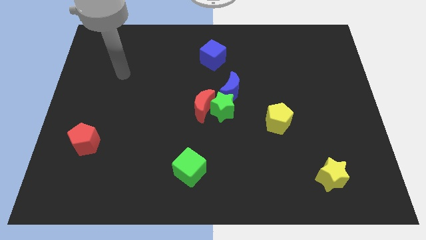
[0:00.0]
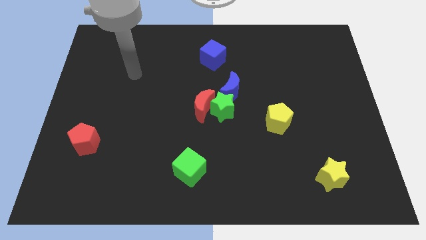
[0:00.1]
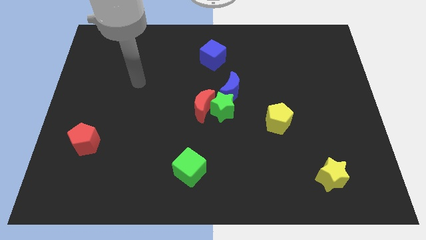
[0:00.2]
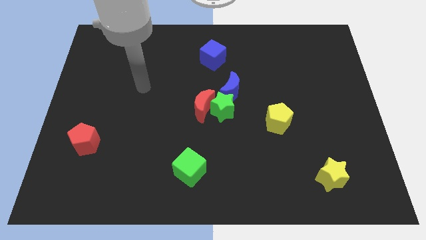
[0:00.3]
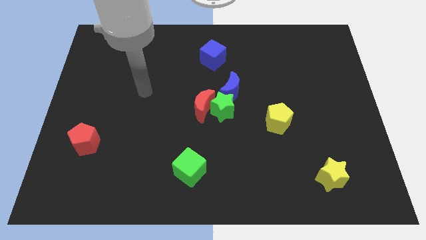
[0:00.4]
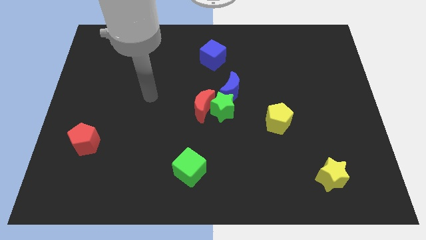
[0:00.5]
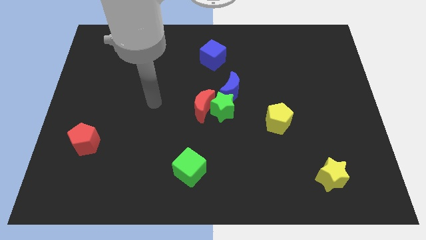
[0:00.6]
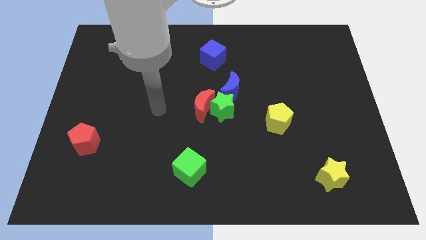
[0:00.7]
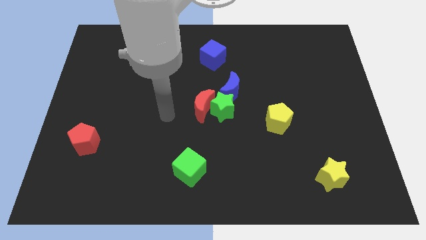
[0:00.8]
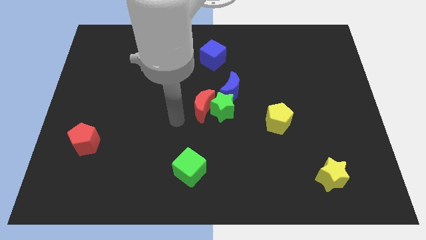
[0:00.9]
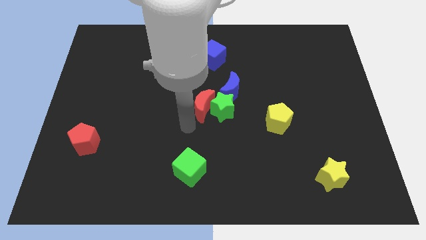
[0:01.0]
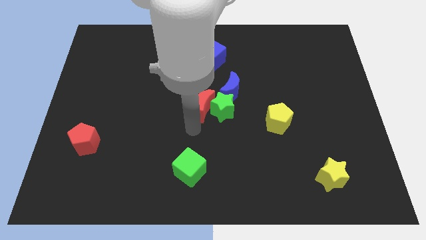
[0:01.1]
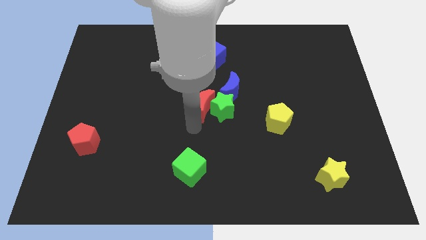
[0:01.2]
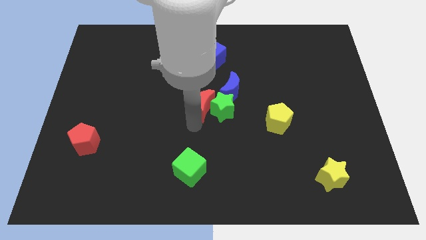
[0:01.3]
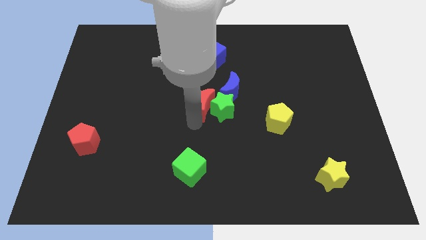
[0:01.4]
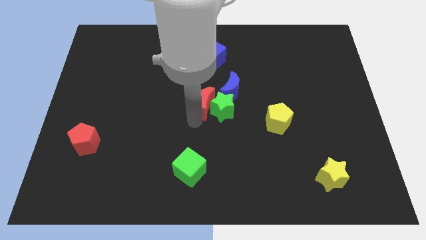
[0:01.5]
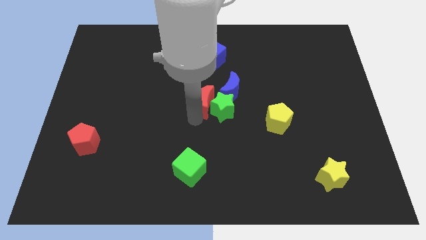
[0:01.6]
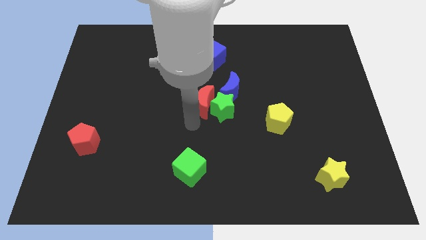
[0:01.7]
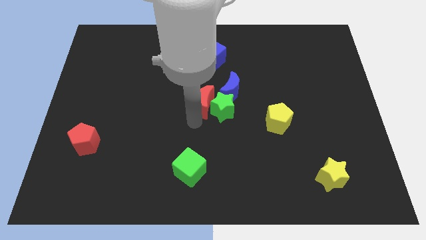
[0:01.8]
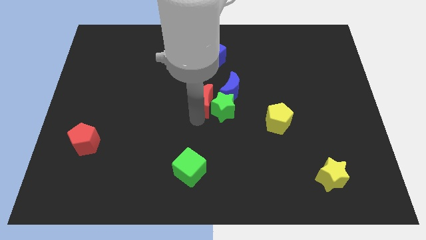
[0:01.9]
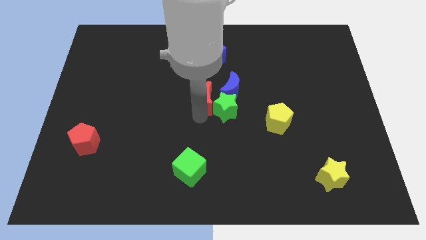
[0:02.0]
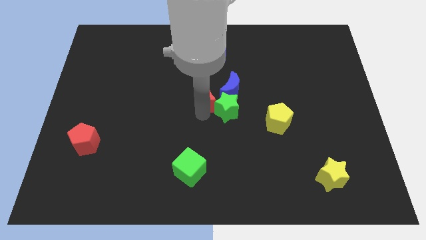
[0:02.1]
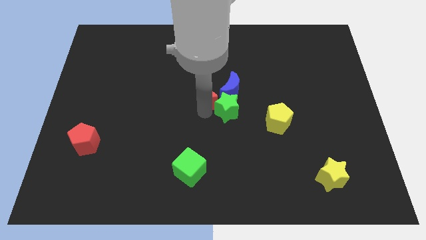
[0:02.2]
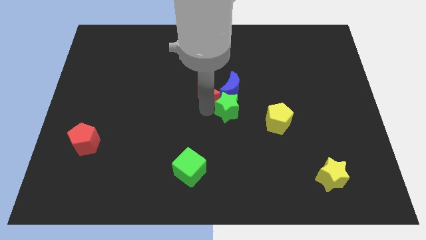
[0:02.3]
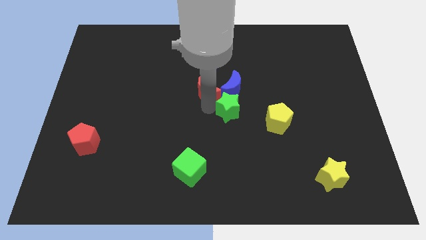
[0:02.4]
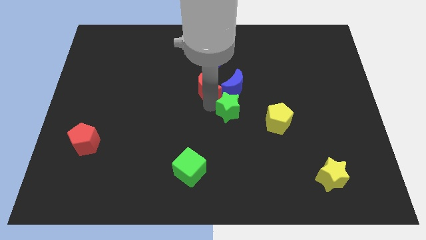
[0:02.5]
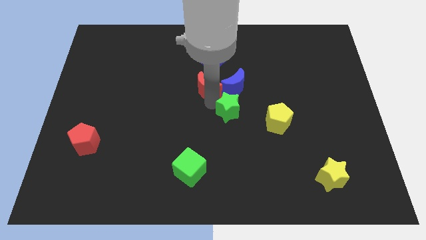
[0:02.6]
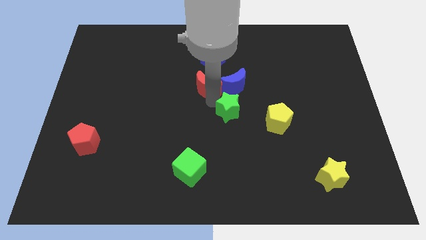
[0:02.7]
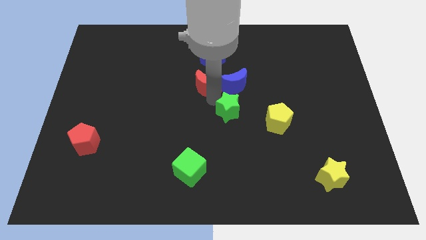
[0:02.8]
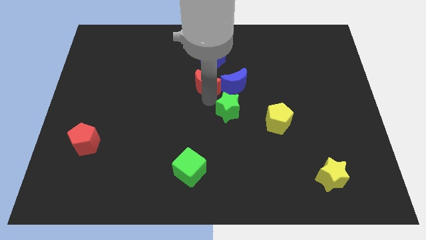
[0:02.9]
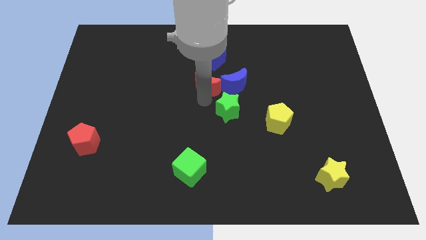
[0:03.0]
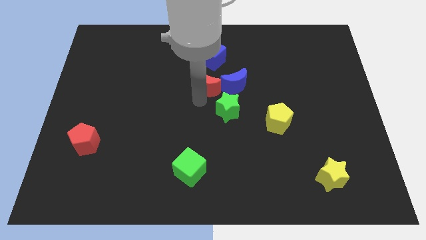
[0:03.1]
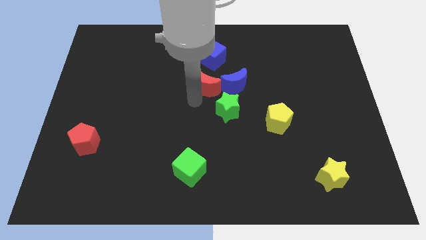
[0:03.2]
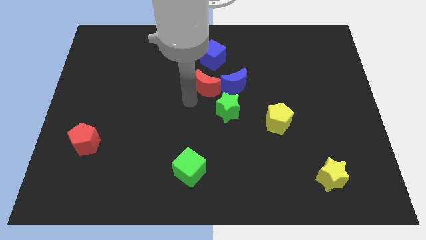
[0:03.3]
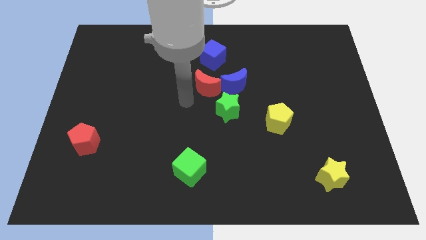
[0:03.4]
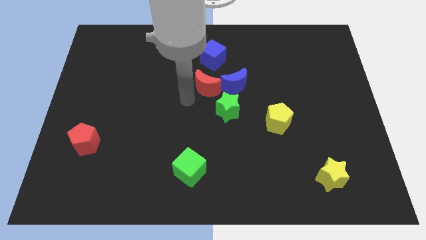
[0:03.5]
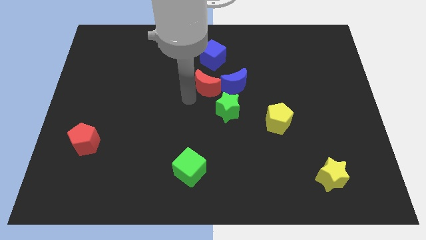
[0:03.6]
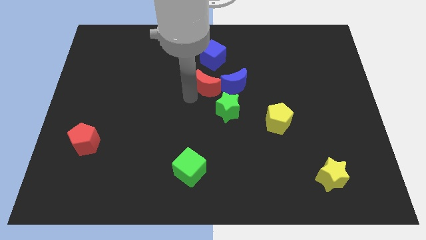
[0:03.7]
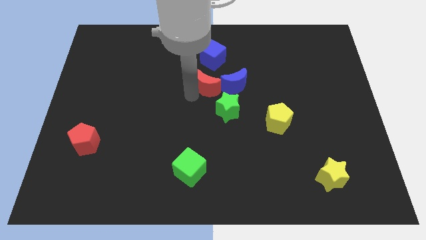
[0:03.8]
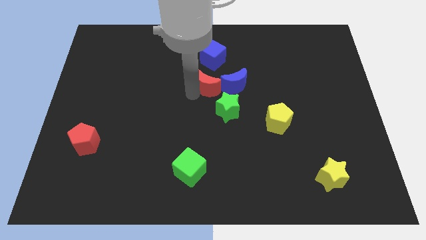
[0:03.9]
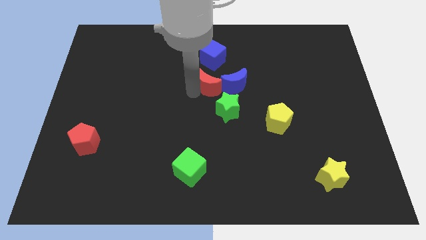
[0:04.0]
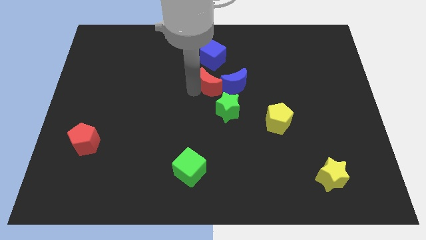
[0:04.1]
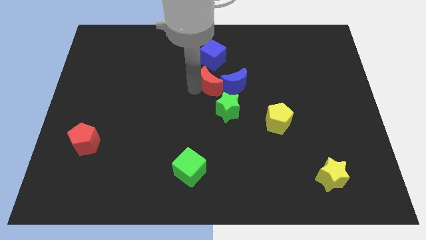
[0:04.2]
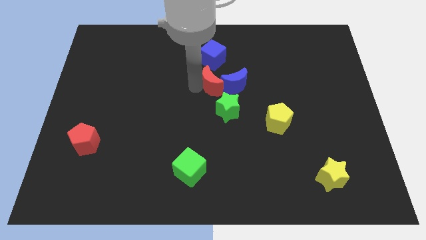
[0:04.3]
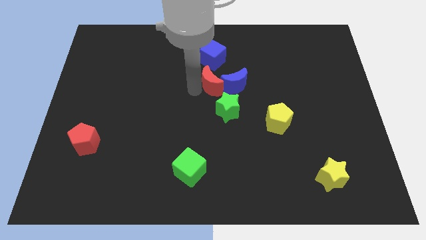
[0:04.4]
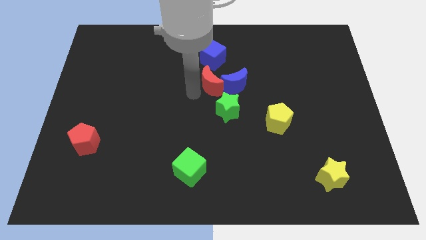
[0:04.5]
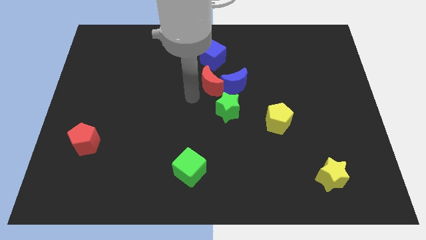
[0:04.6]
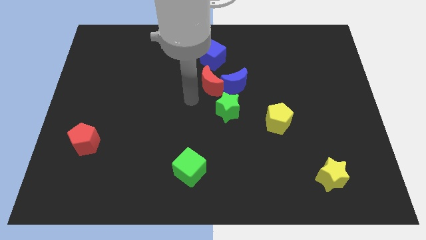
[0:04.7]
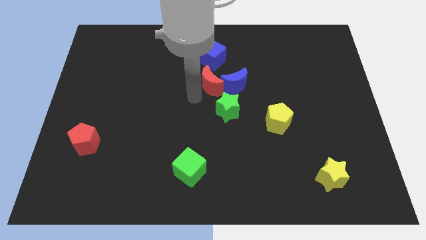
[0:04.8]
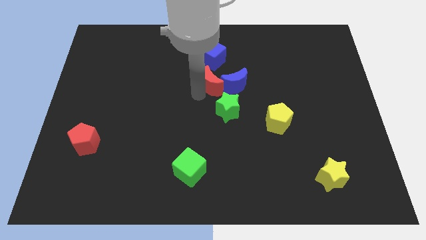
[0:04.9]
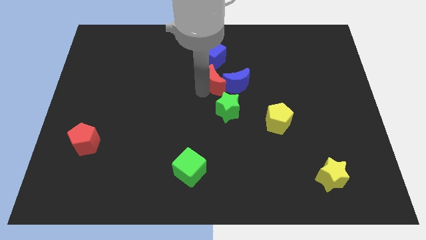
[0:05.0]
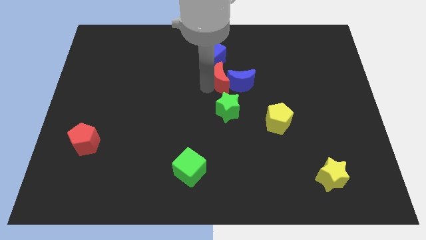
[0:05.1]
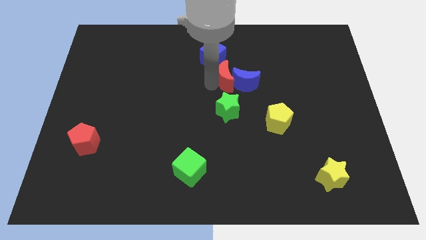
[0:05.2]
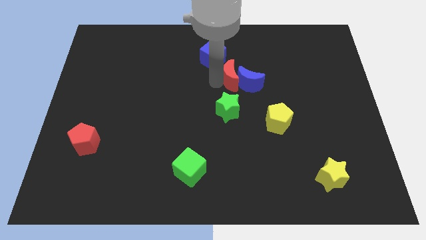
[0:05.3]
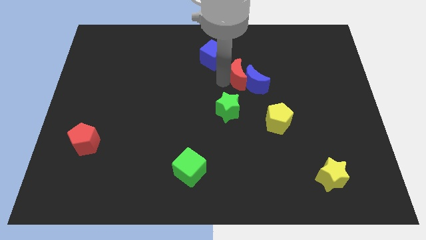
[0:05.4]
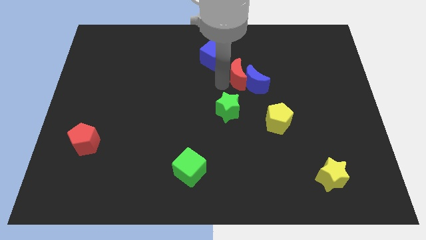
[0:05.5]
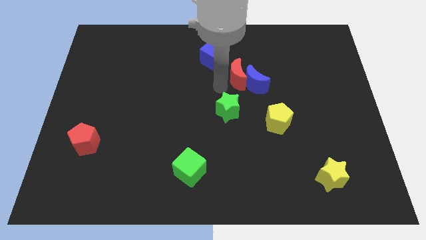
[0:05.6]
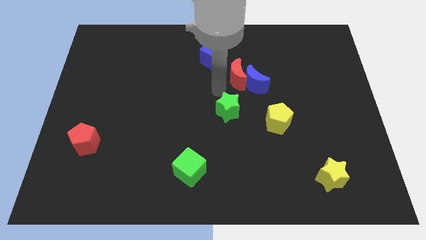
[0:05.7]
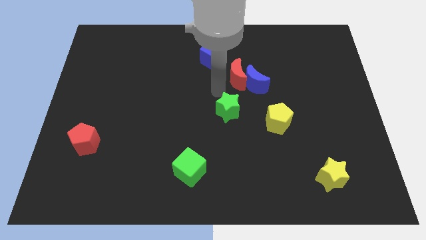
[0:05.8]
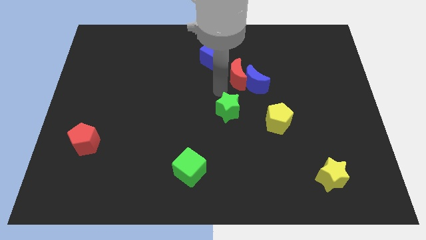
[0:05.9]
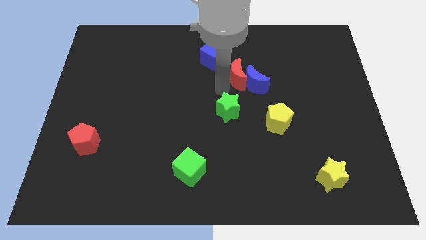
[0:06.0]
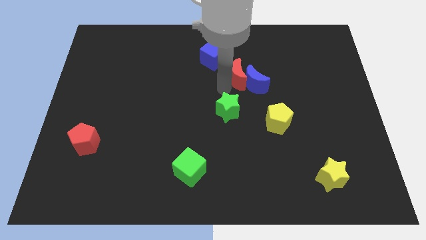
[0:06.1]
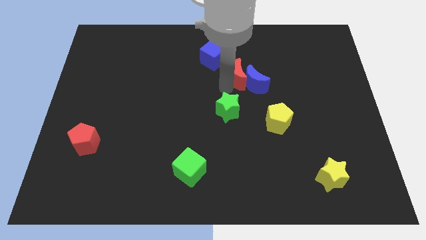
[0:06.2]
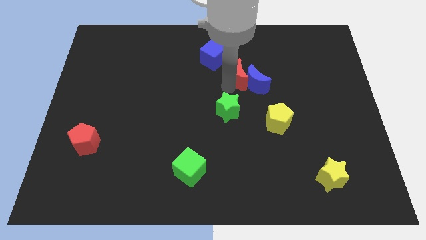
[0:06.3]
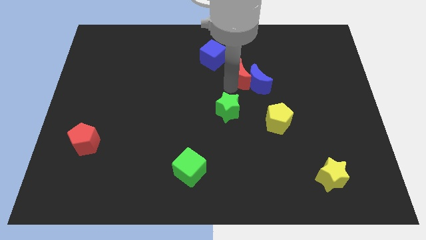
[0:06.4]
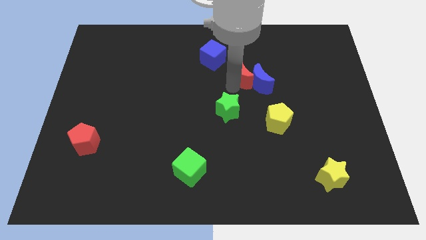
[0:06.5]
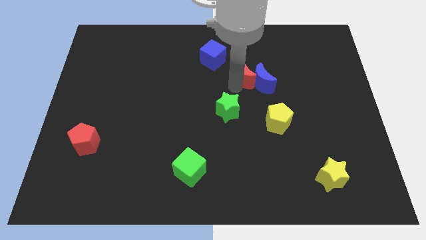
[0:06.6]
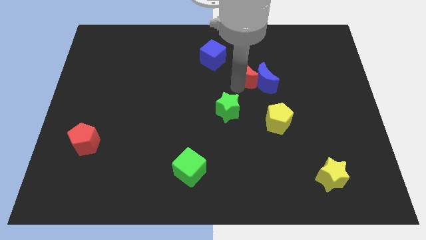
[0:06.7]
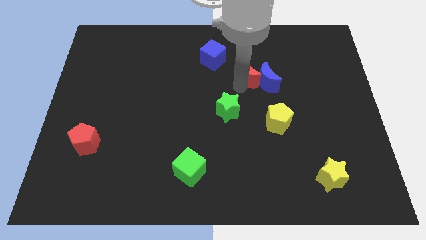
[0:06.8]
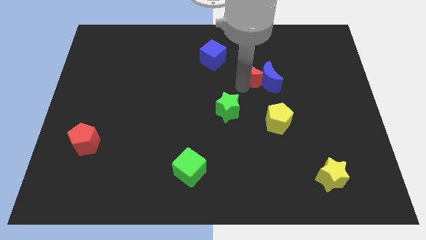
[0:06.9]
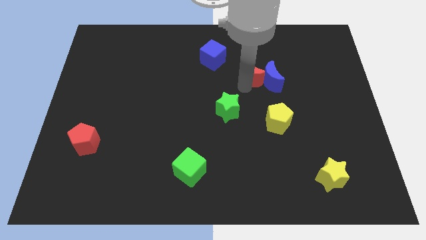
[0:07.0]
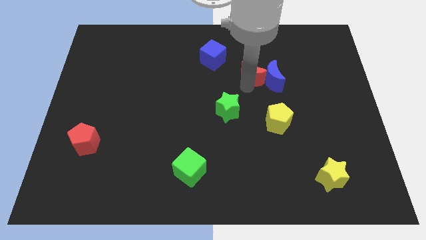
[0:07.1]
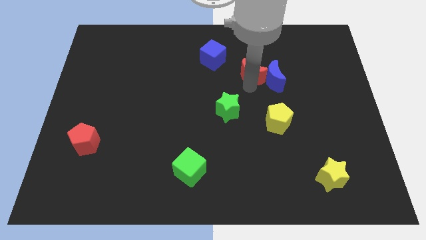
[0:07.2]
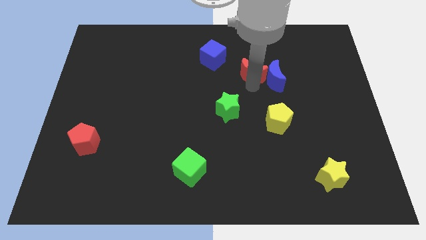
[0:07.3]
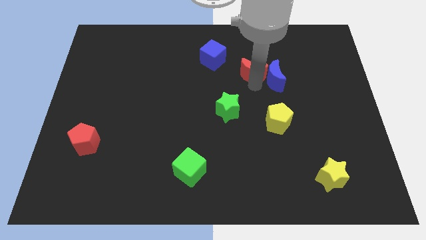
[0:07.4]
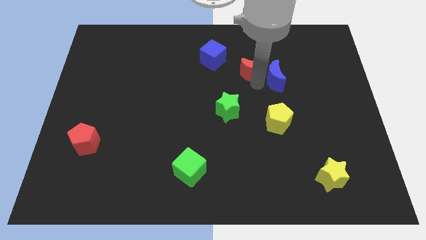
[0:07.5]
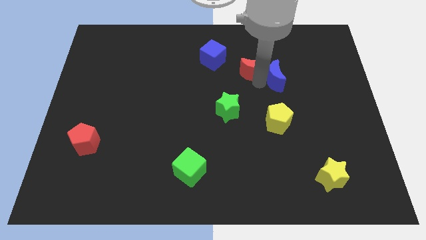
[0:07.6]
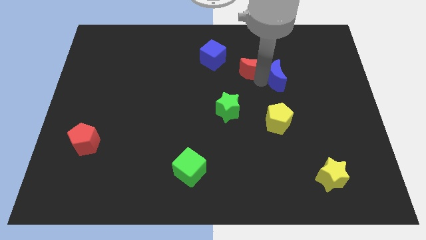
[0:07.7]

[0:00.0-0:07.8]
move the red moon to the right side of the blue cube
